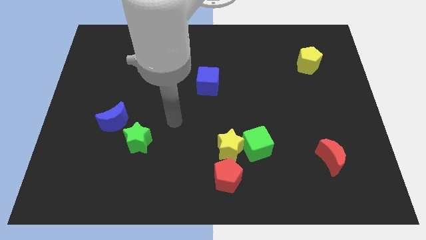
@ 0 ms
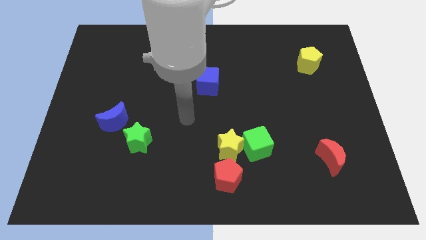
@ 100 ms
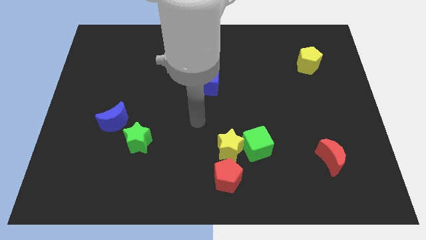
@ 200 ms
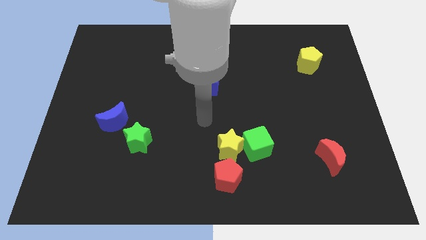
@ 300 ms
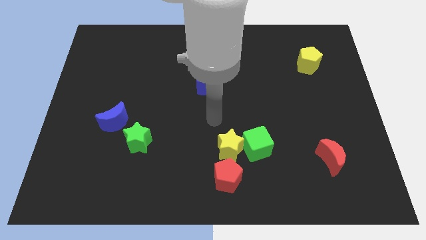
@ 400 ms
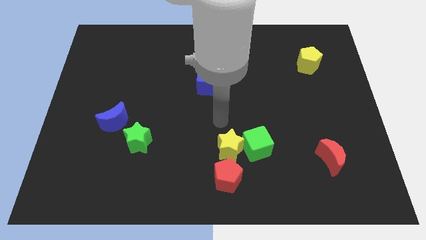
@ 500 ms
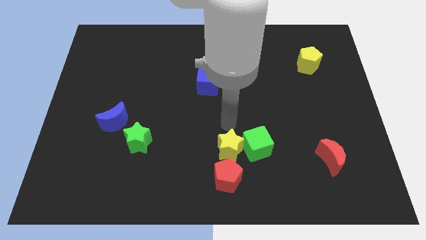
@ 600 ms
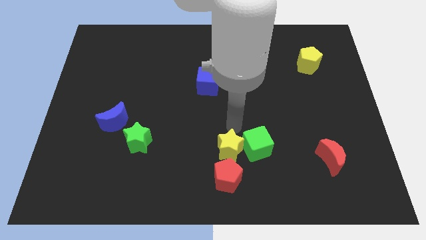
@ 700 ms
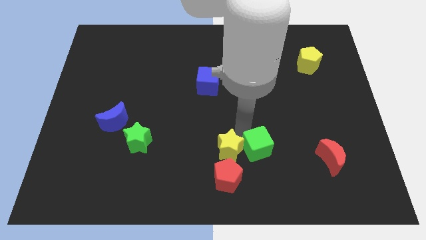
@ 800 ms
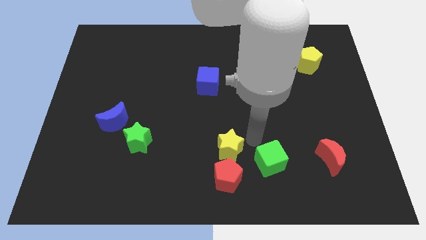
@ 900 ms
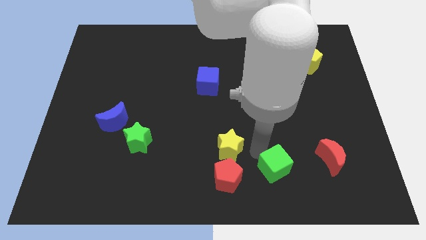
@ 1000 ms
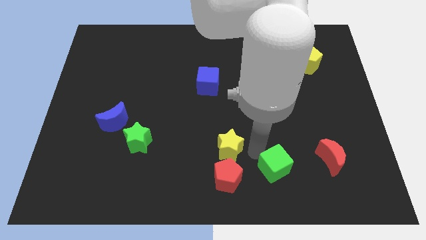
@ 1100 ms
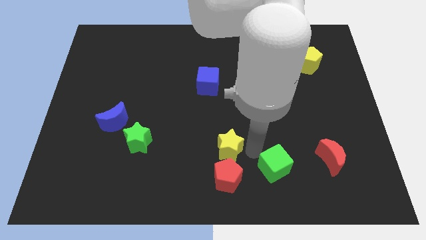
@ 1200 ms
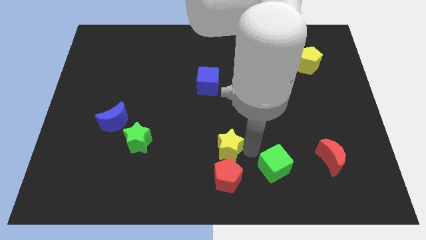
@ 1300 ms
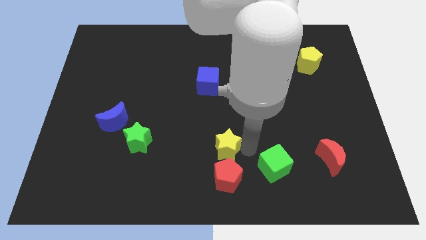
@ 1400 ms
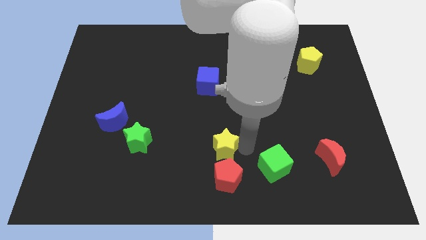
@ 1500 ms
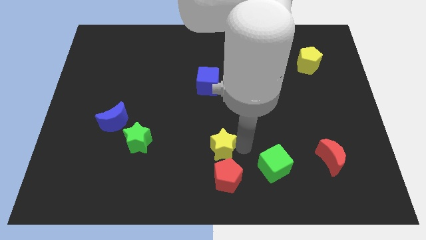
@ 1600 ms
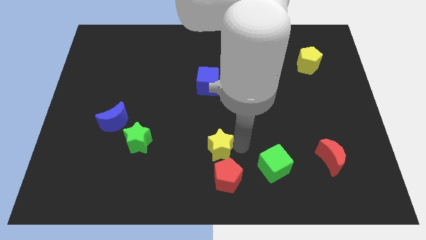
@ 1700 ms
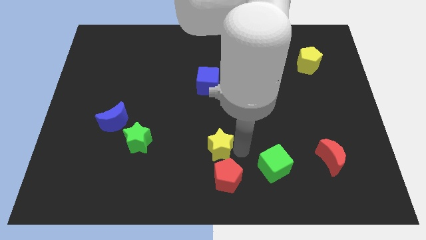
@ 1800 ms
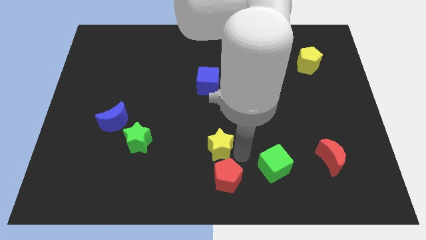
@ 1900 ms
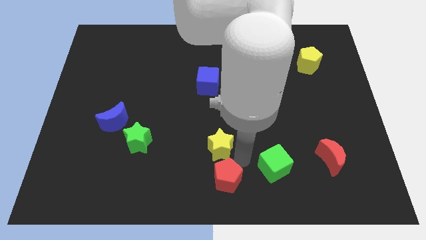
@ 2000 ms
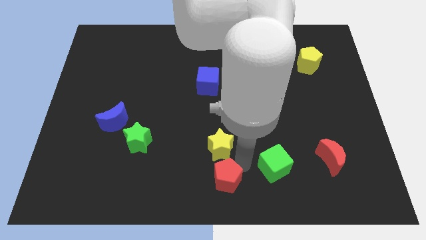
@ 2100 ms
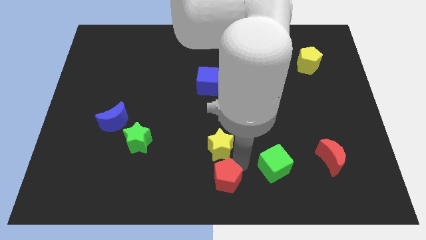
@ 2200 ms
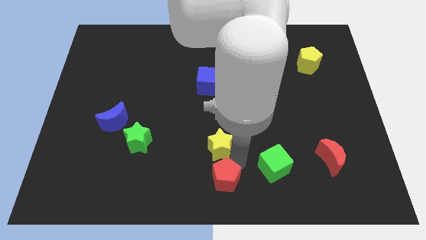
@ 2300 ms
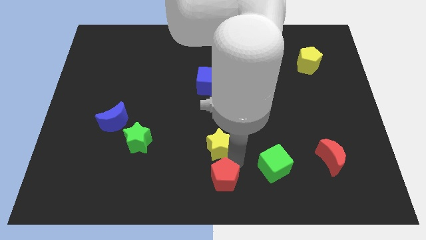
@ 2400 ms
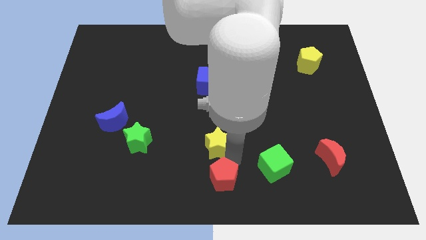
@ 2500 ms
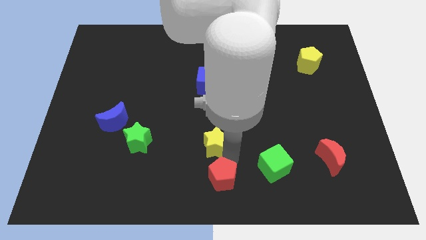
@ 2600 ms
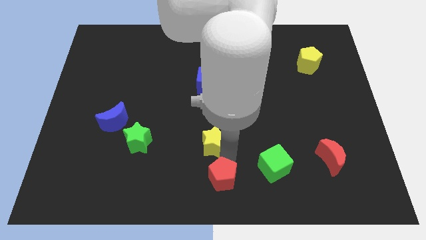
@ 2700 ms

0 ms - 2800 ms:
pull the yellow star apart from the green cube and red pentagon

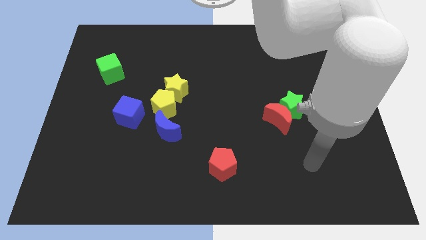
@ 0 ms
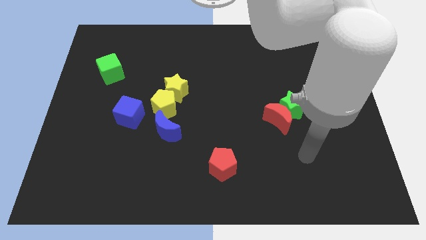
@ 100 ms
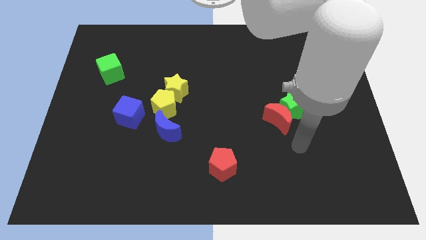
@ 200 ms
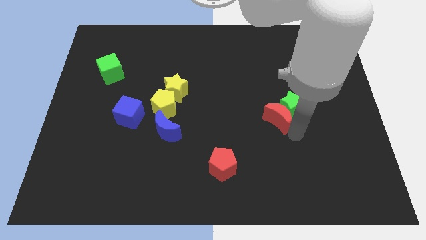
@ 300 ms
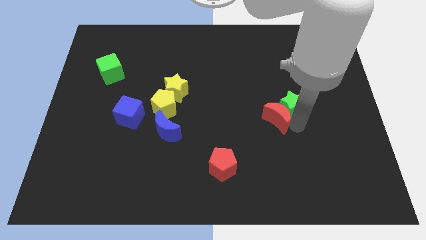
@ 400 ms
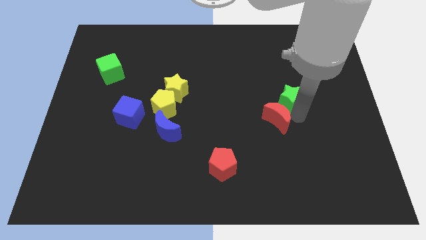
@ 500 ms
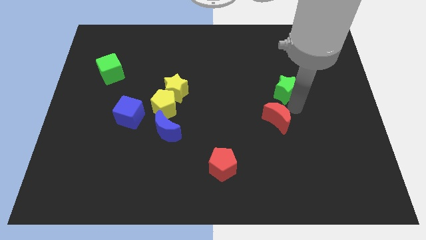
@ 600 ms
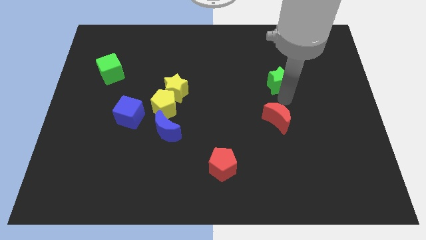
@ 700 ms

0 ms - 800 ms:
move the red moon away from the green star

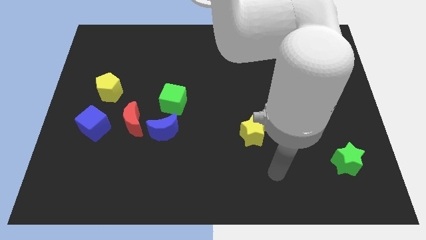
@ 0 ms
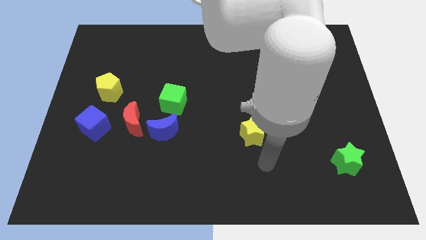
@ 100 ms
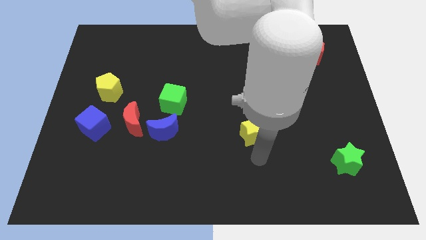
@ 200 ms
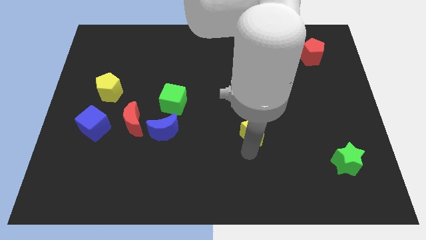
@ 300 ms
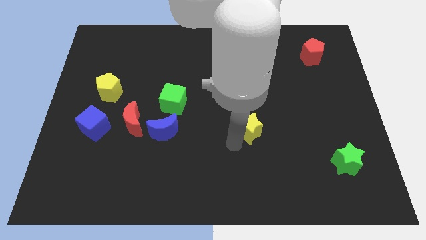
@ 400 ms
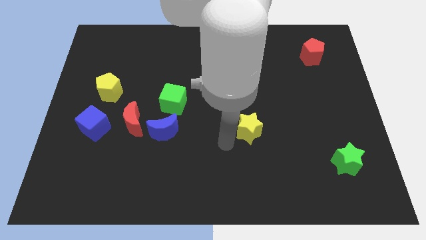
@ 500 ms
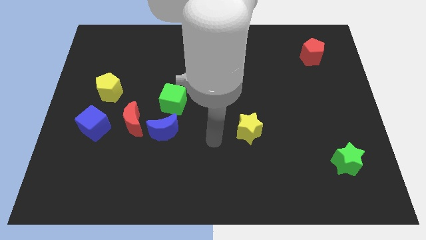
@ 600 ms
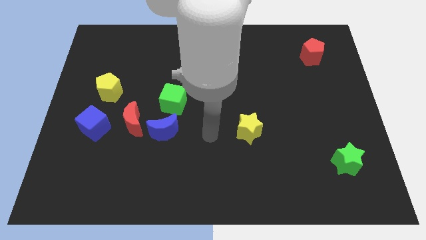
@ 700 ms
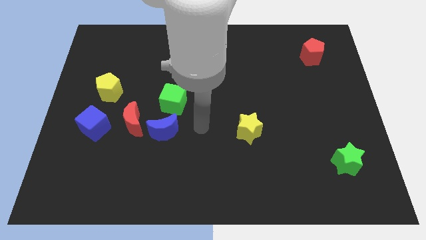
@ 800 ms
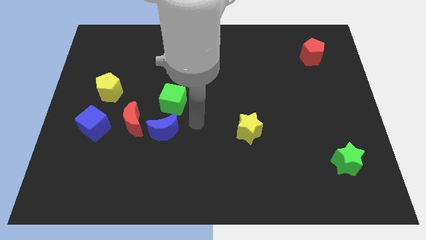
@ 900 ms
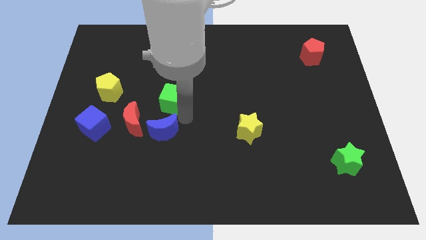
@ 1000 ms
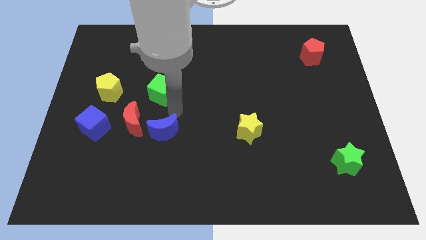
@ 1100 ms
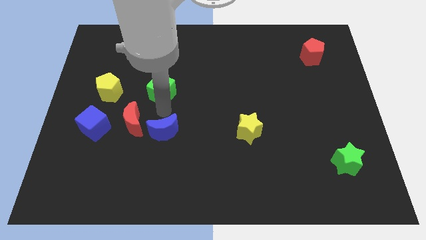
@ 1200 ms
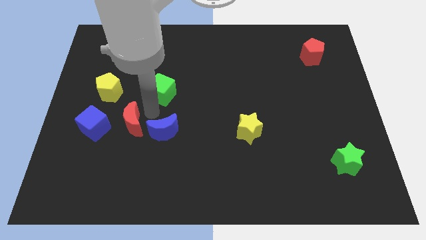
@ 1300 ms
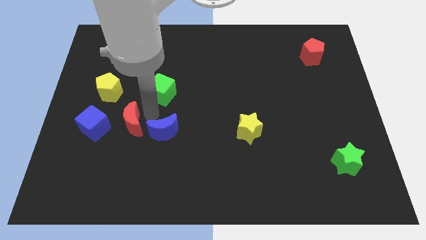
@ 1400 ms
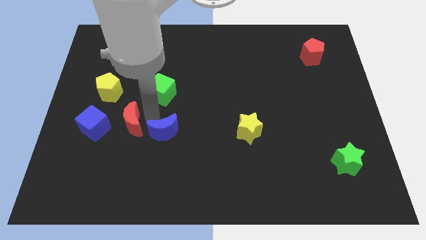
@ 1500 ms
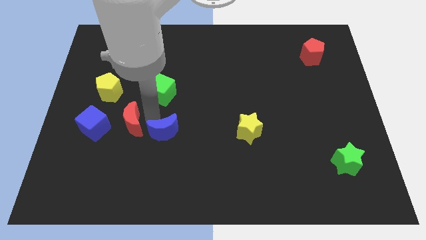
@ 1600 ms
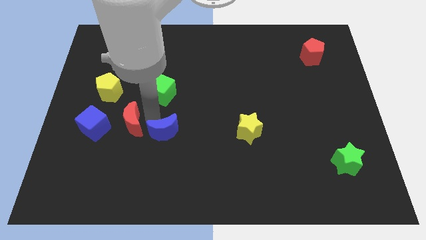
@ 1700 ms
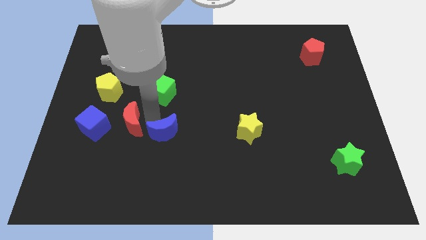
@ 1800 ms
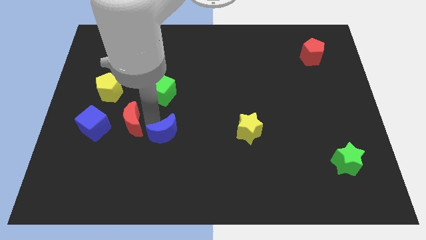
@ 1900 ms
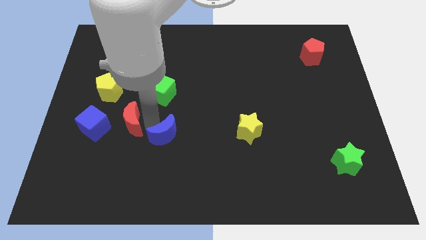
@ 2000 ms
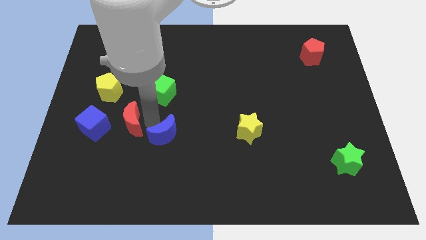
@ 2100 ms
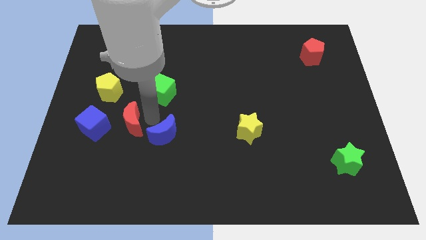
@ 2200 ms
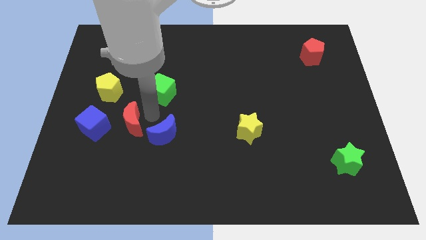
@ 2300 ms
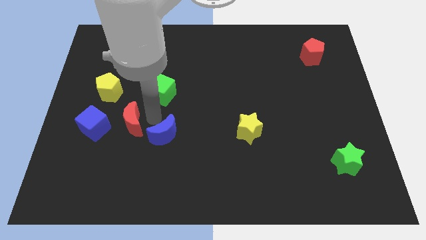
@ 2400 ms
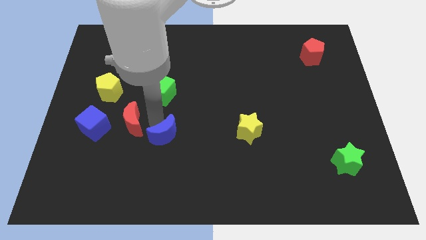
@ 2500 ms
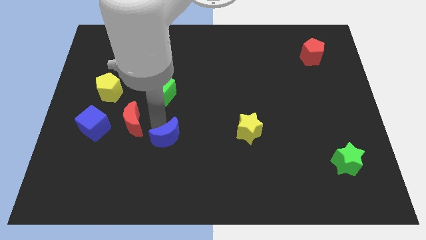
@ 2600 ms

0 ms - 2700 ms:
pull the blue moon apart from the red moon and green cube

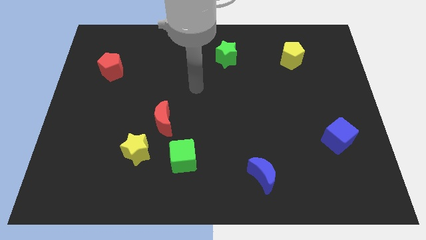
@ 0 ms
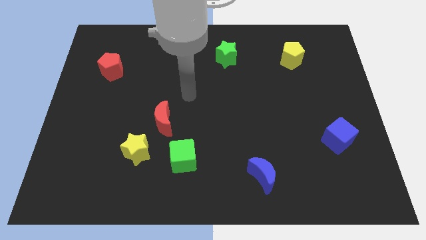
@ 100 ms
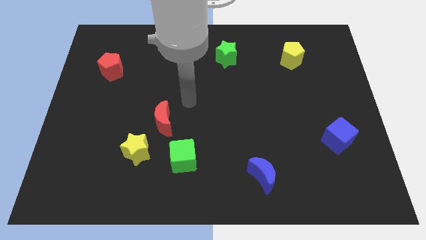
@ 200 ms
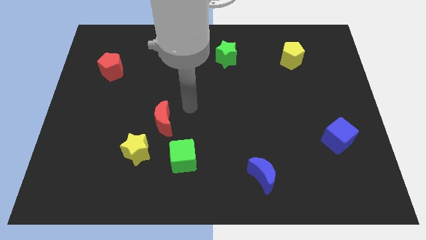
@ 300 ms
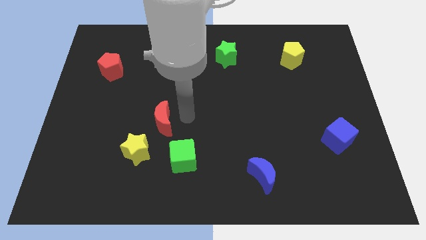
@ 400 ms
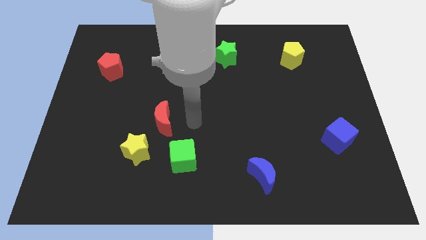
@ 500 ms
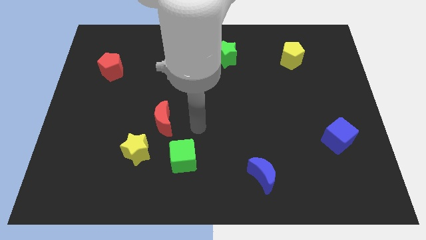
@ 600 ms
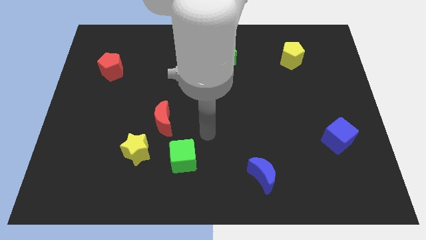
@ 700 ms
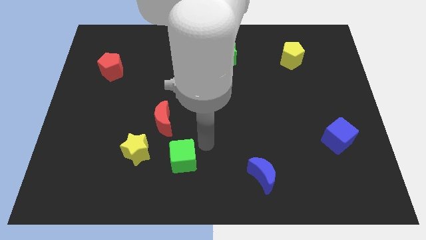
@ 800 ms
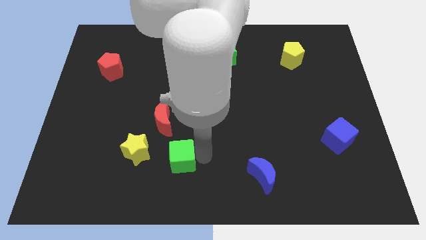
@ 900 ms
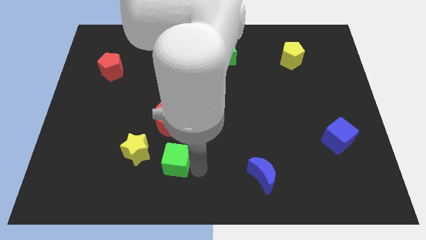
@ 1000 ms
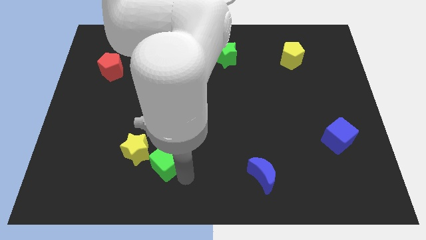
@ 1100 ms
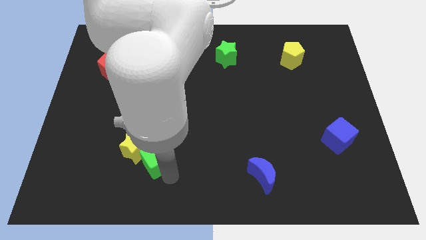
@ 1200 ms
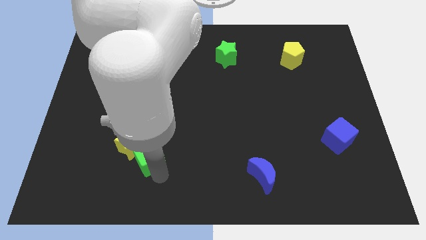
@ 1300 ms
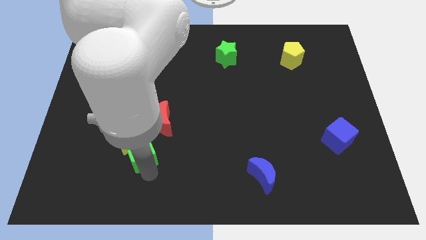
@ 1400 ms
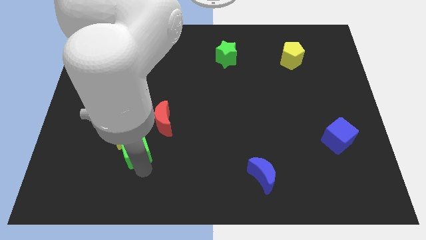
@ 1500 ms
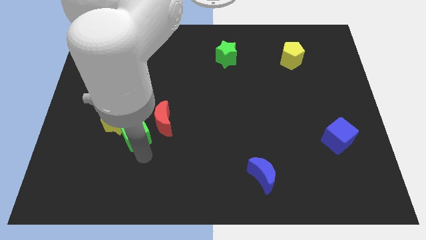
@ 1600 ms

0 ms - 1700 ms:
separate the red moon from the yellow star

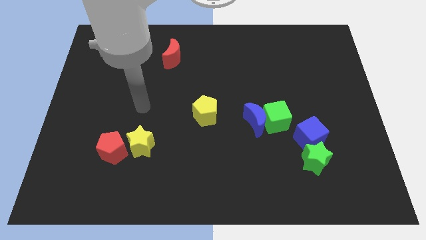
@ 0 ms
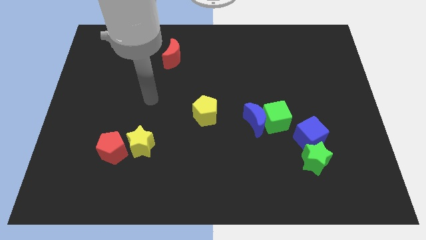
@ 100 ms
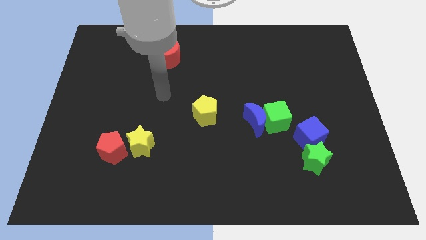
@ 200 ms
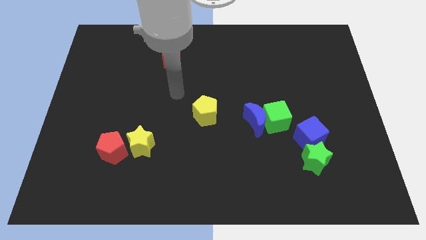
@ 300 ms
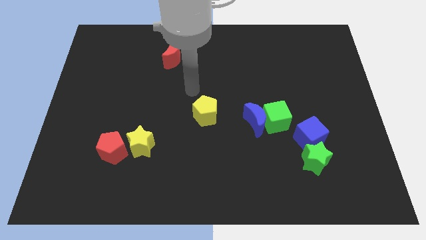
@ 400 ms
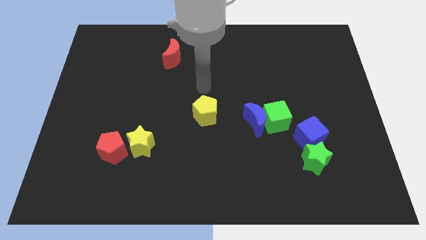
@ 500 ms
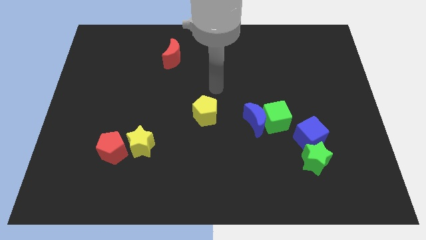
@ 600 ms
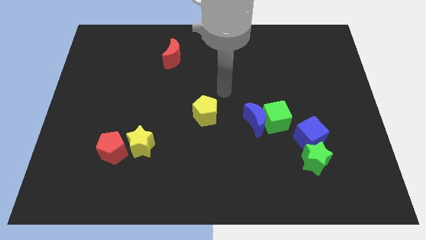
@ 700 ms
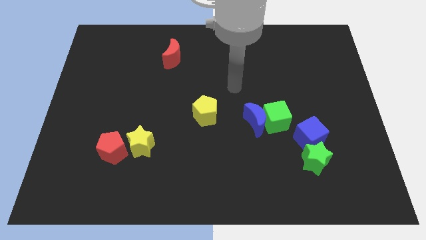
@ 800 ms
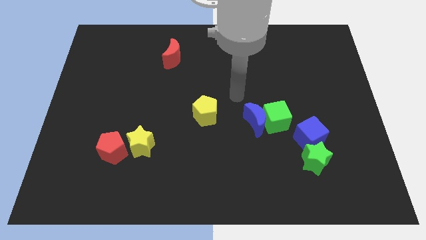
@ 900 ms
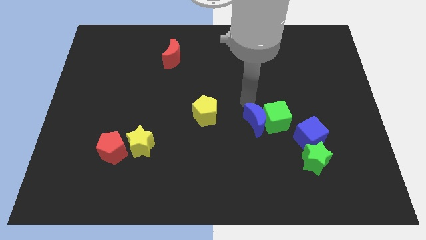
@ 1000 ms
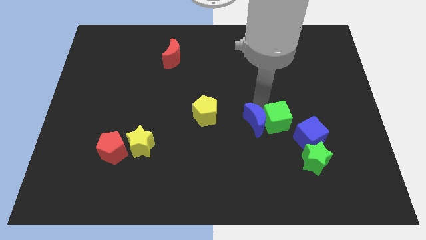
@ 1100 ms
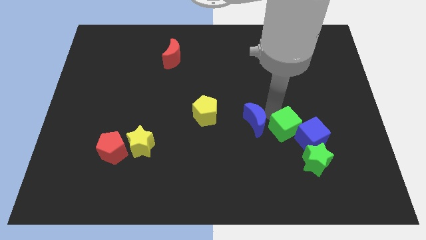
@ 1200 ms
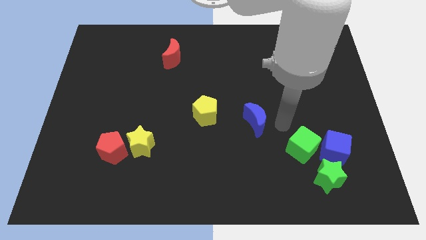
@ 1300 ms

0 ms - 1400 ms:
pull the blue moon apart from the green cube
